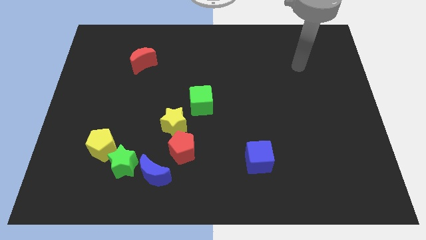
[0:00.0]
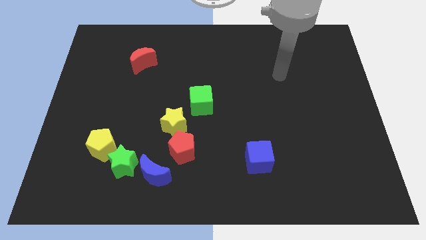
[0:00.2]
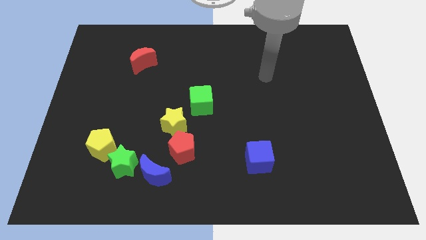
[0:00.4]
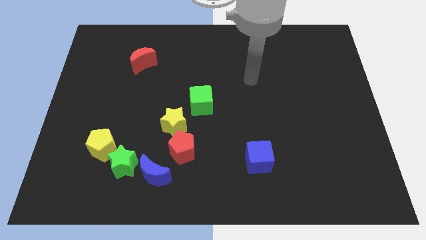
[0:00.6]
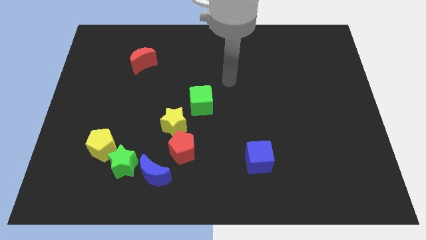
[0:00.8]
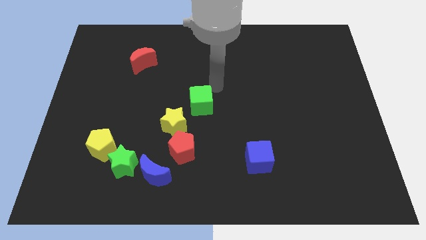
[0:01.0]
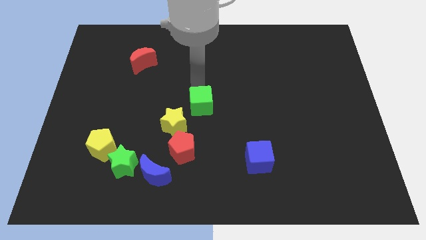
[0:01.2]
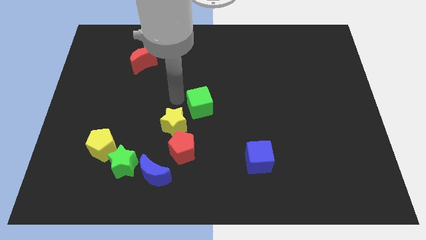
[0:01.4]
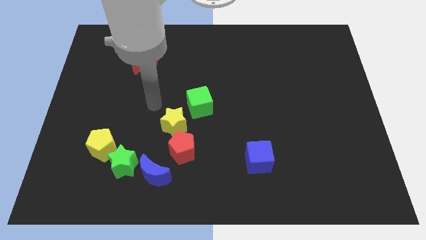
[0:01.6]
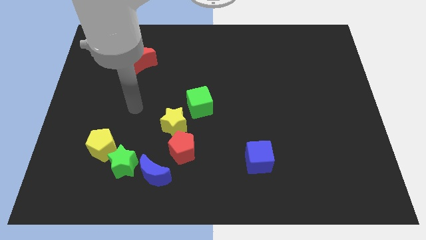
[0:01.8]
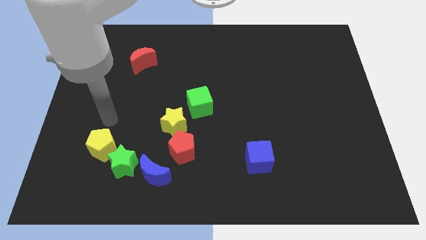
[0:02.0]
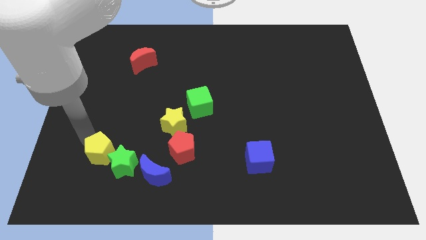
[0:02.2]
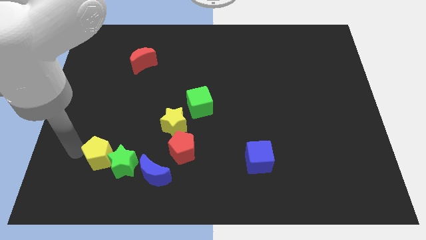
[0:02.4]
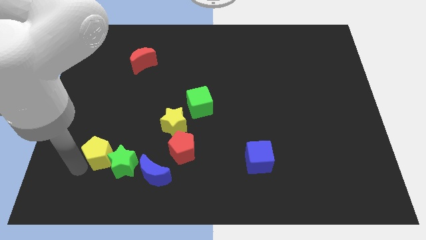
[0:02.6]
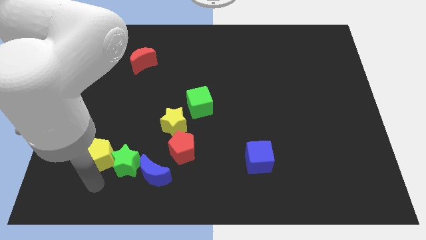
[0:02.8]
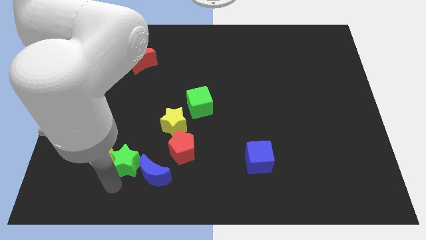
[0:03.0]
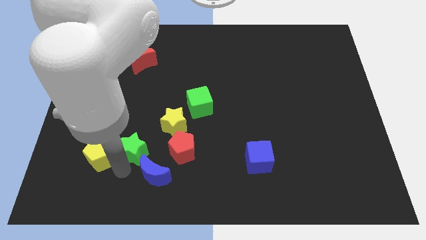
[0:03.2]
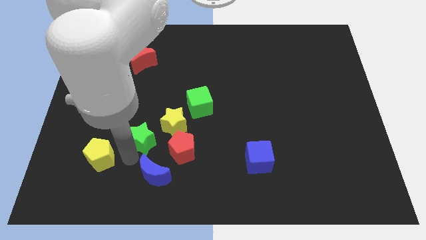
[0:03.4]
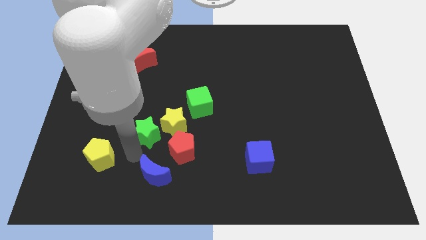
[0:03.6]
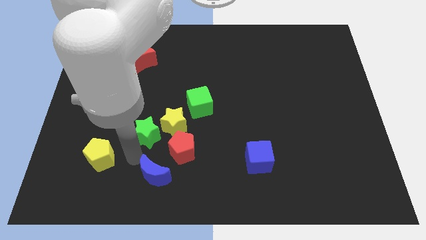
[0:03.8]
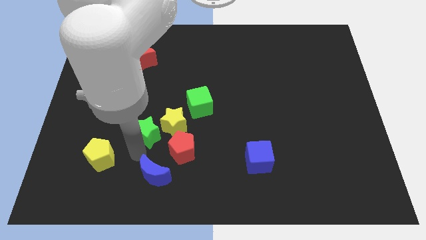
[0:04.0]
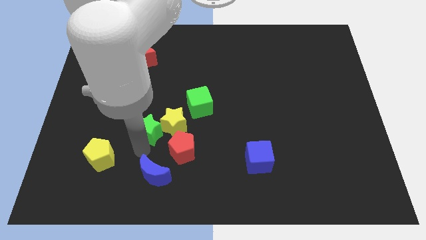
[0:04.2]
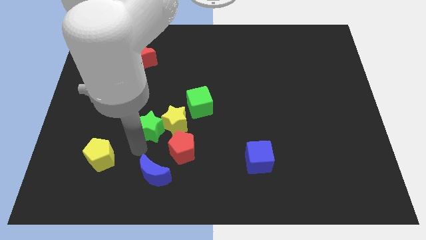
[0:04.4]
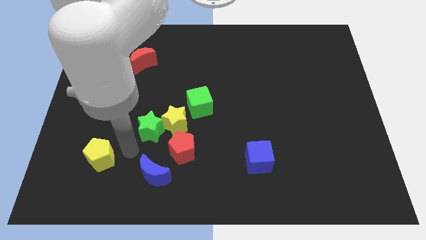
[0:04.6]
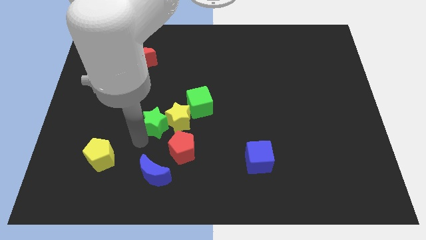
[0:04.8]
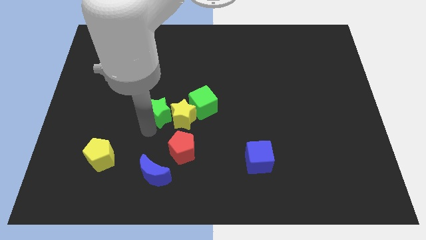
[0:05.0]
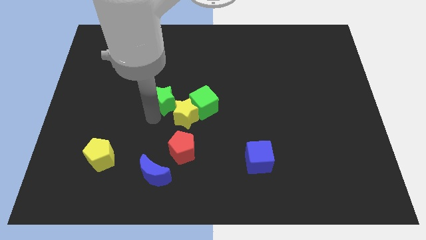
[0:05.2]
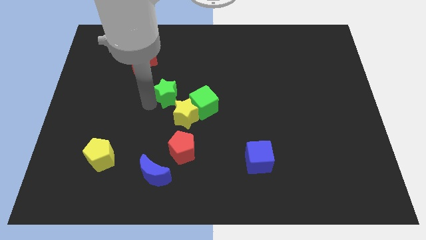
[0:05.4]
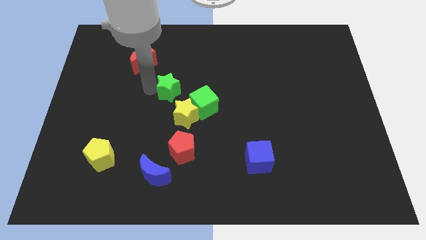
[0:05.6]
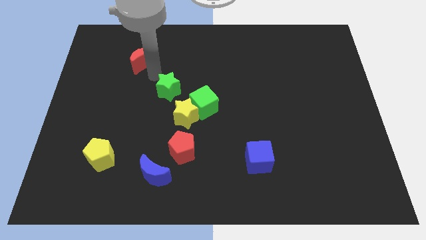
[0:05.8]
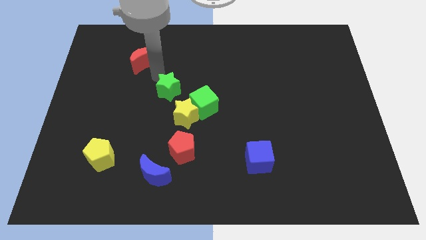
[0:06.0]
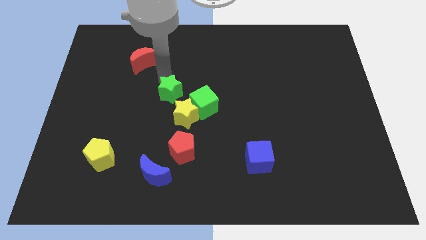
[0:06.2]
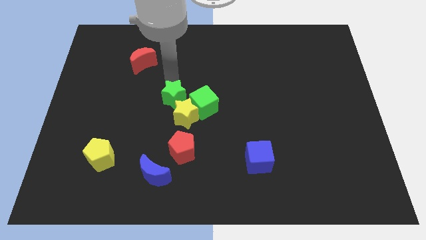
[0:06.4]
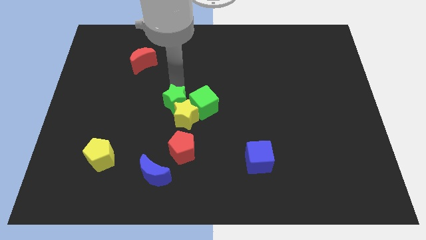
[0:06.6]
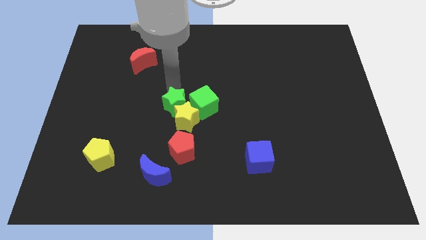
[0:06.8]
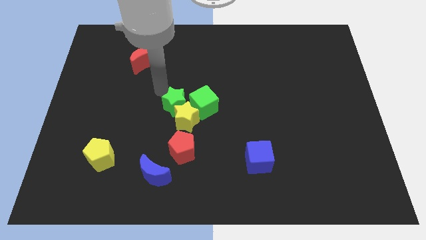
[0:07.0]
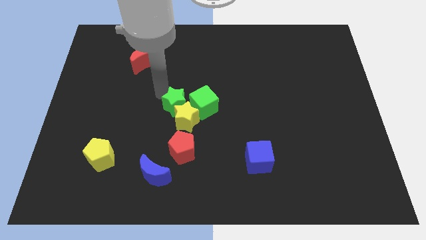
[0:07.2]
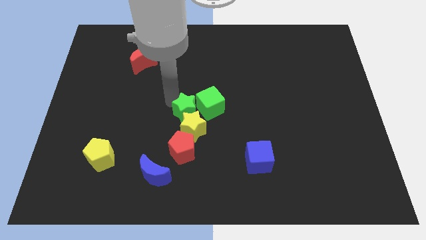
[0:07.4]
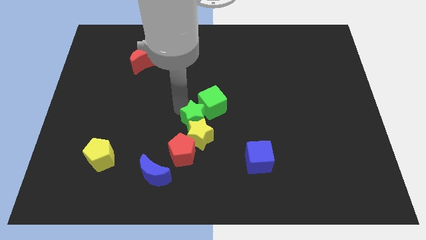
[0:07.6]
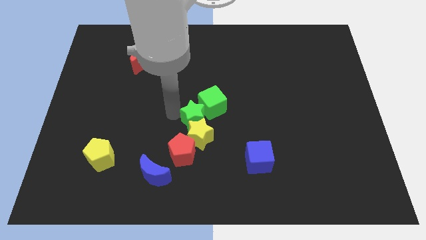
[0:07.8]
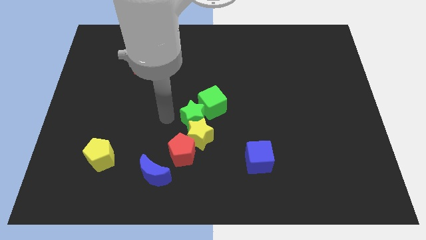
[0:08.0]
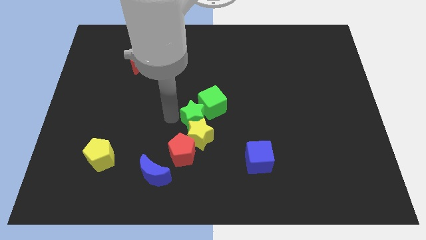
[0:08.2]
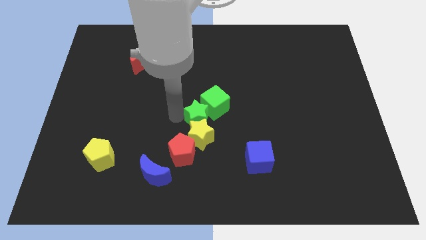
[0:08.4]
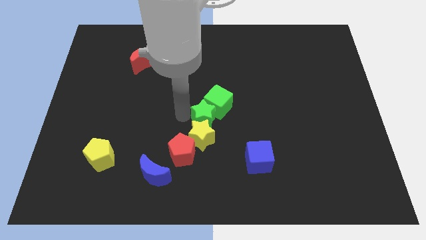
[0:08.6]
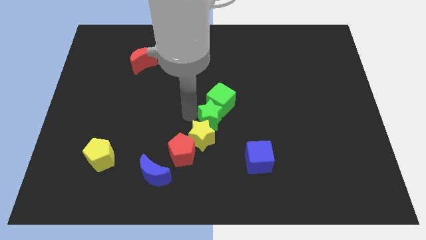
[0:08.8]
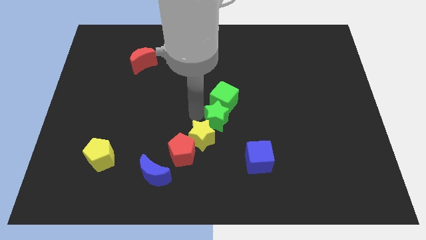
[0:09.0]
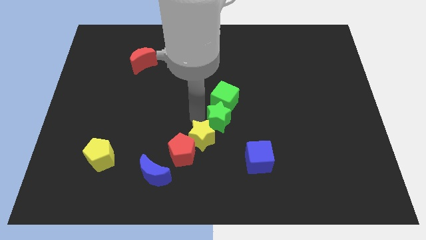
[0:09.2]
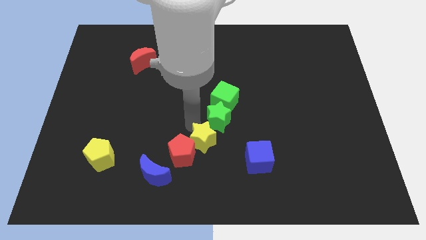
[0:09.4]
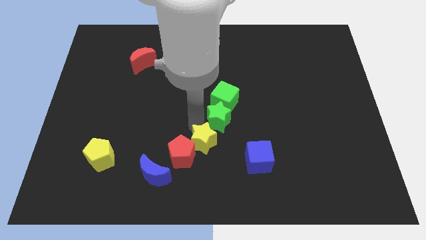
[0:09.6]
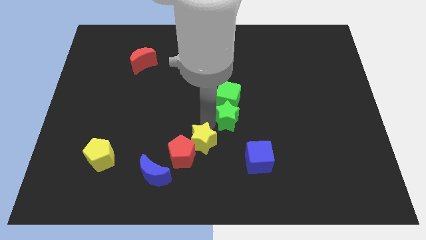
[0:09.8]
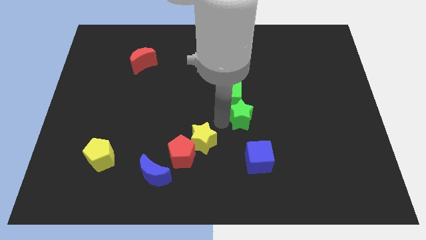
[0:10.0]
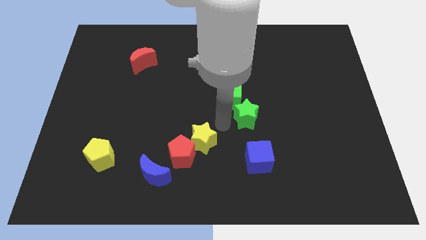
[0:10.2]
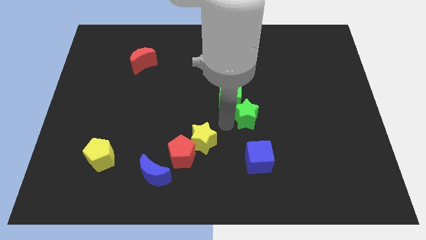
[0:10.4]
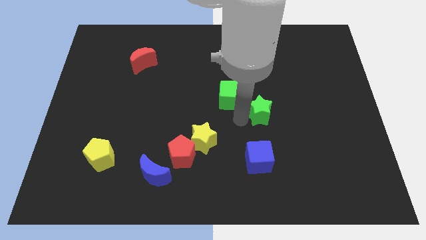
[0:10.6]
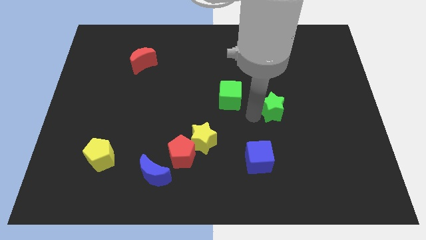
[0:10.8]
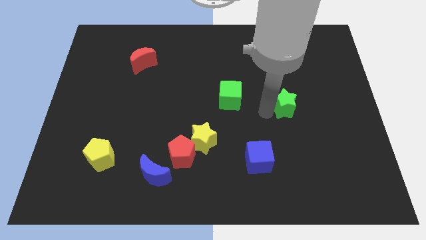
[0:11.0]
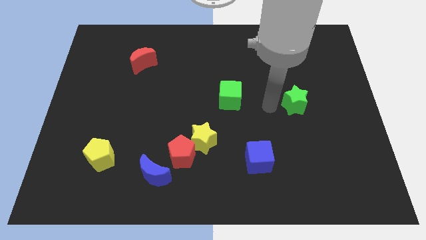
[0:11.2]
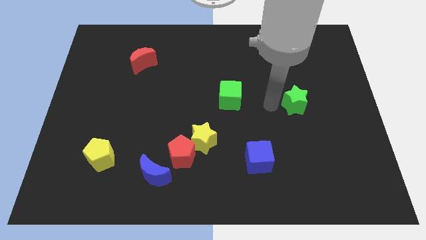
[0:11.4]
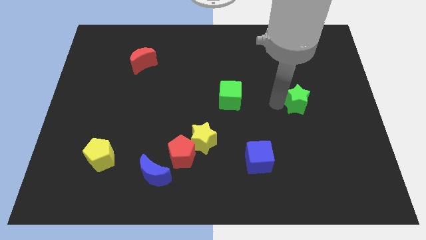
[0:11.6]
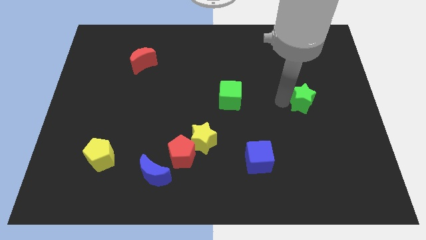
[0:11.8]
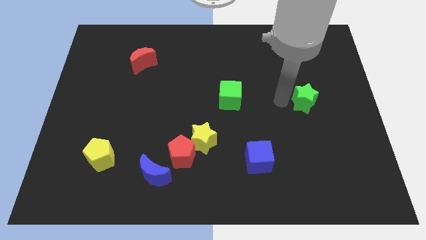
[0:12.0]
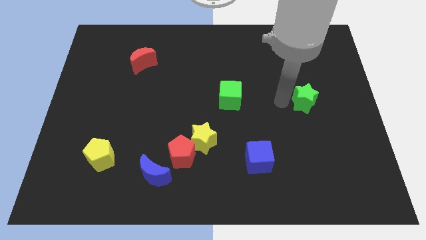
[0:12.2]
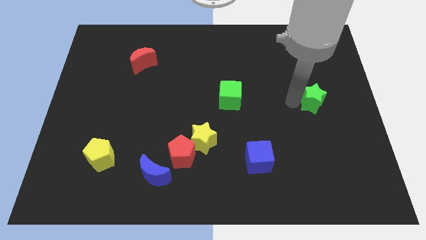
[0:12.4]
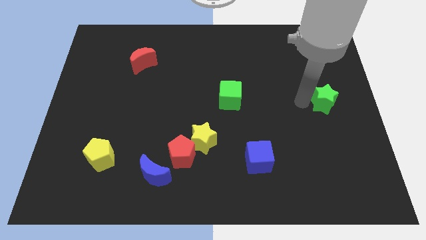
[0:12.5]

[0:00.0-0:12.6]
put the green star to the right side
